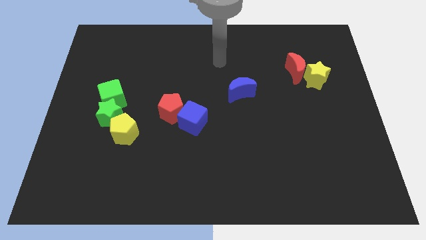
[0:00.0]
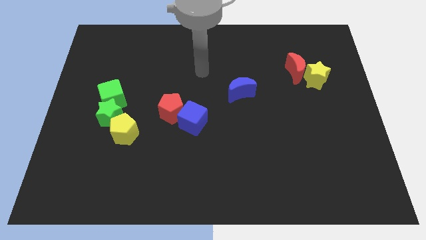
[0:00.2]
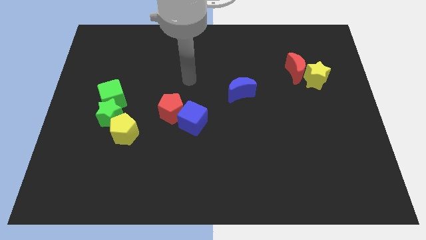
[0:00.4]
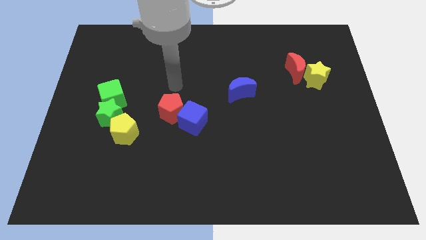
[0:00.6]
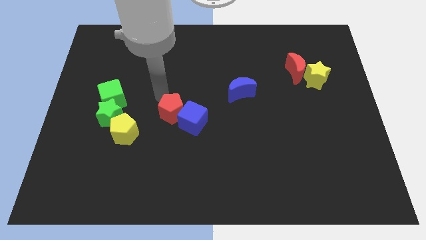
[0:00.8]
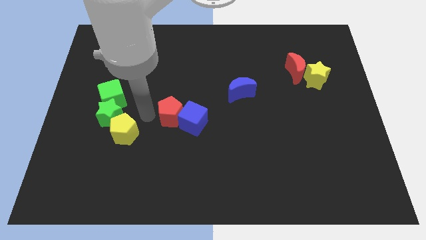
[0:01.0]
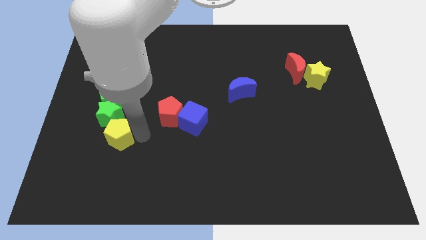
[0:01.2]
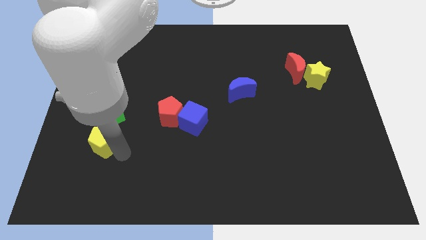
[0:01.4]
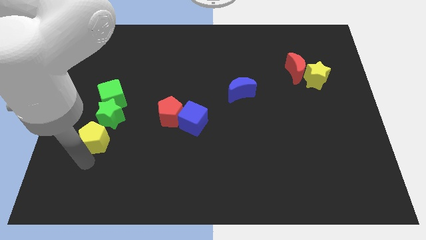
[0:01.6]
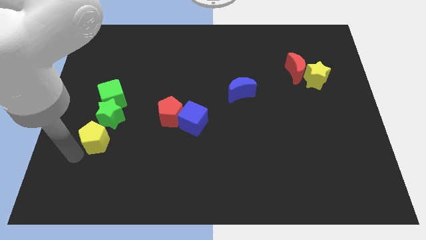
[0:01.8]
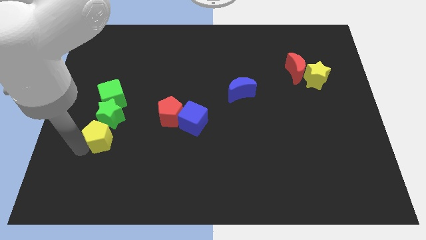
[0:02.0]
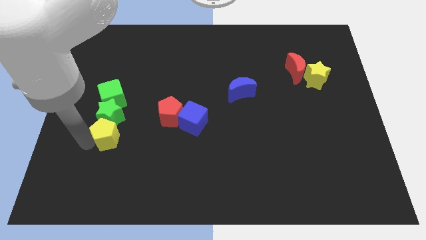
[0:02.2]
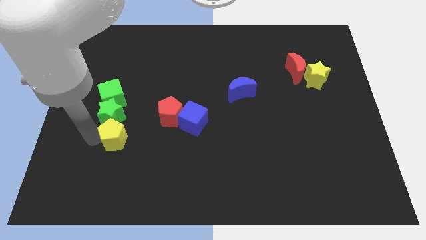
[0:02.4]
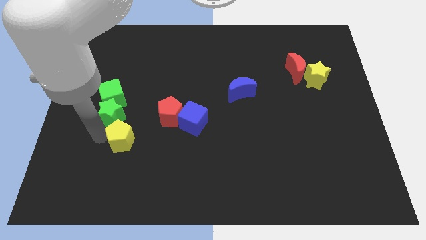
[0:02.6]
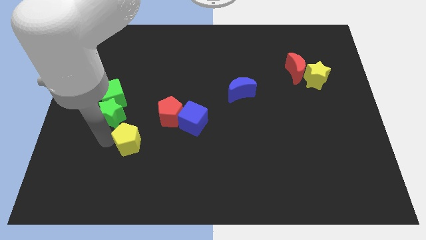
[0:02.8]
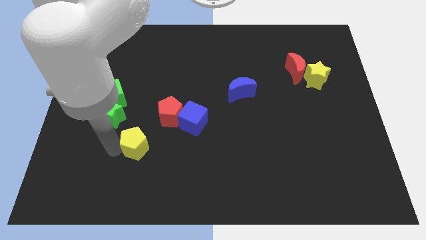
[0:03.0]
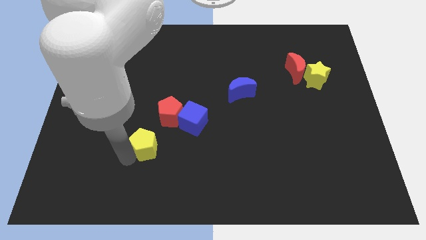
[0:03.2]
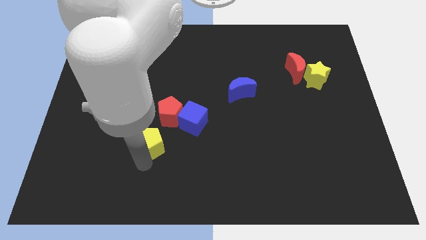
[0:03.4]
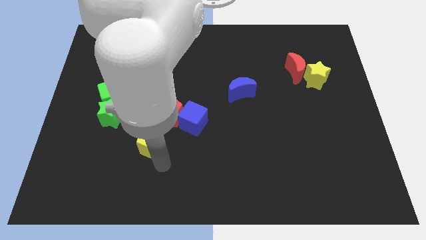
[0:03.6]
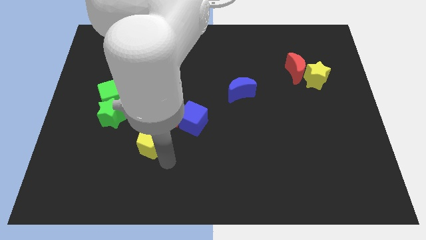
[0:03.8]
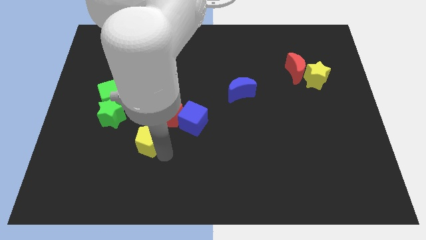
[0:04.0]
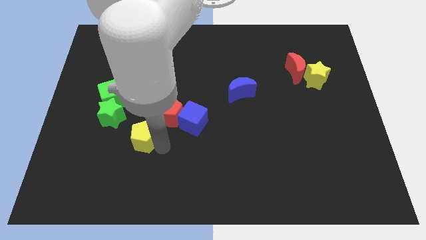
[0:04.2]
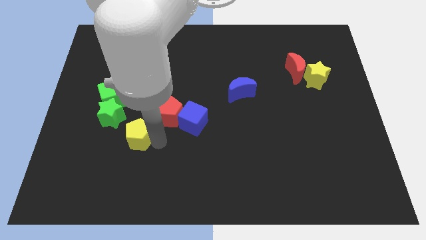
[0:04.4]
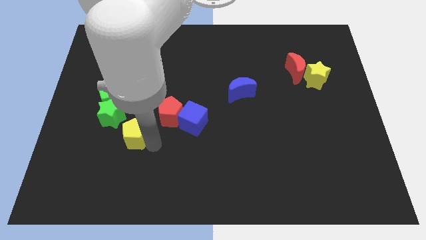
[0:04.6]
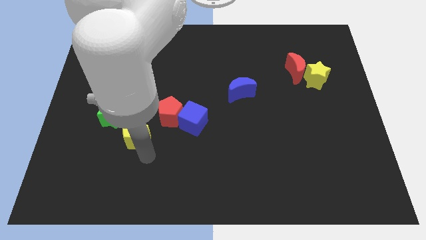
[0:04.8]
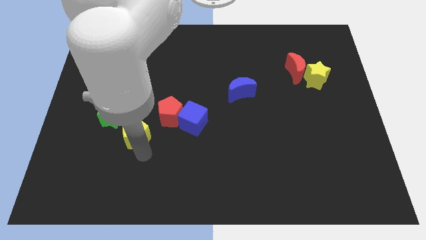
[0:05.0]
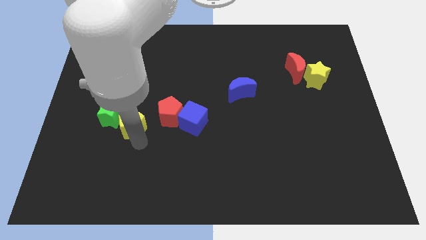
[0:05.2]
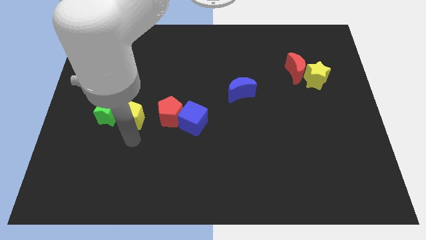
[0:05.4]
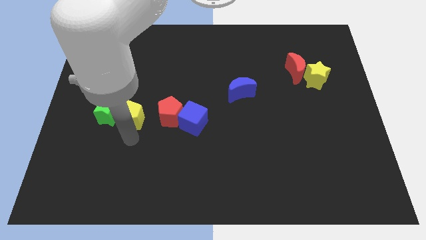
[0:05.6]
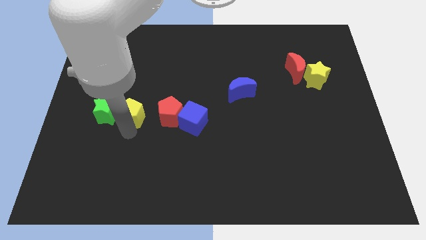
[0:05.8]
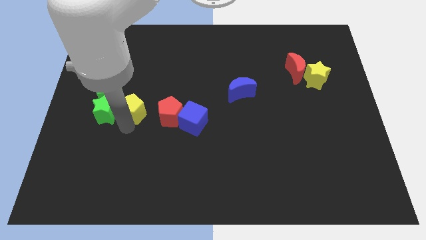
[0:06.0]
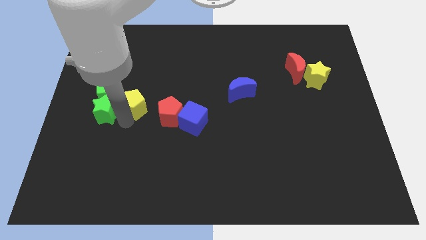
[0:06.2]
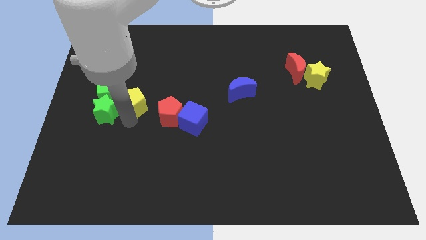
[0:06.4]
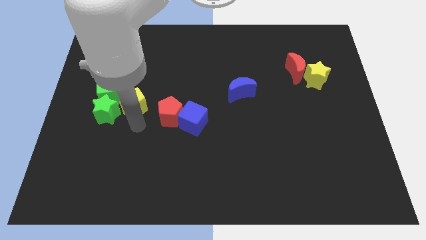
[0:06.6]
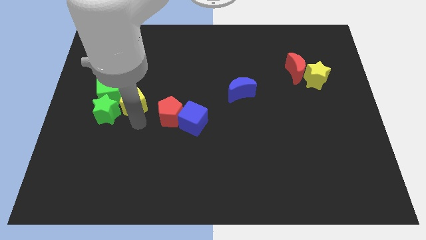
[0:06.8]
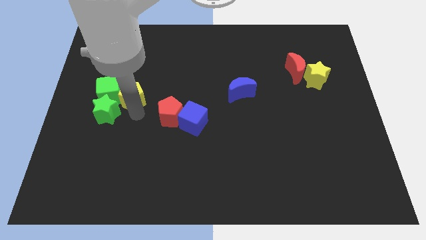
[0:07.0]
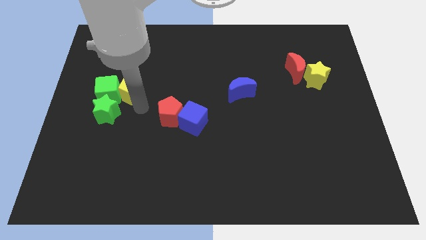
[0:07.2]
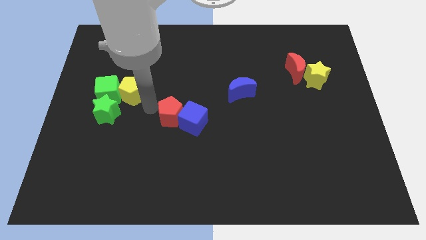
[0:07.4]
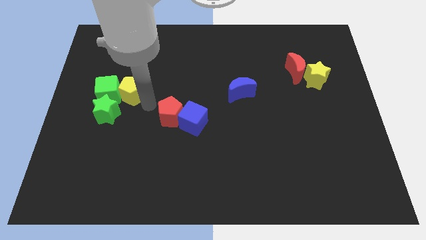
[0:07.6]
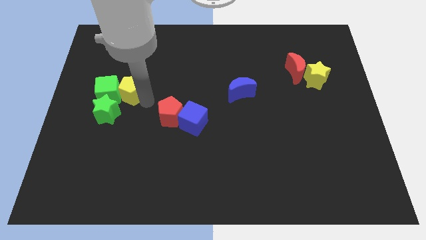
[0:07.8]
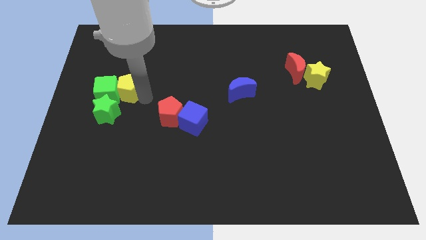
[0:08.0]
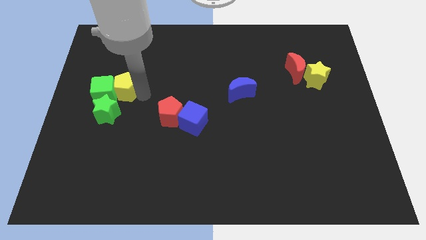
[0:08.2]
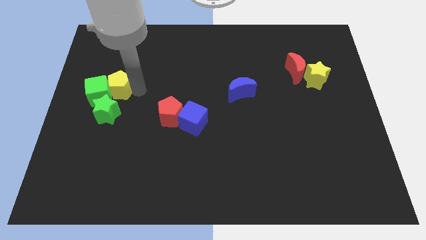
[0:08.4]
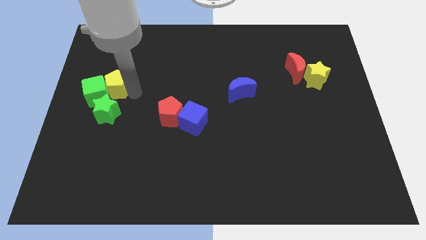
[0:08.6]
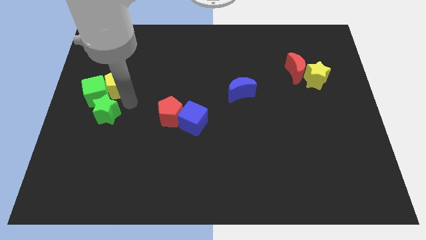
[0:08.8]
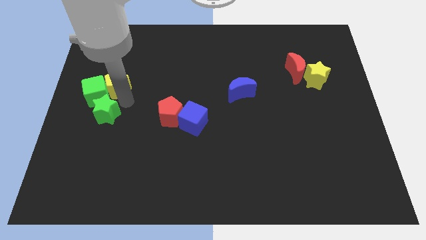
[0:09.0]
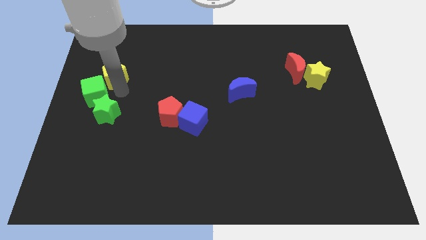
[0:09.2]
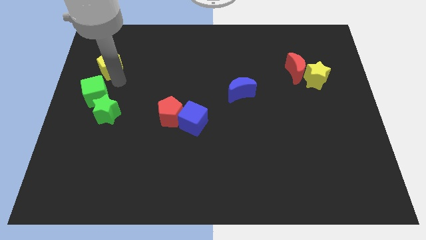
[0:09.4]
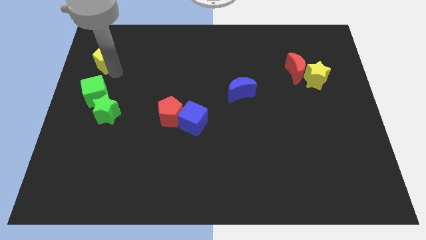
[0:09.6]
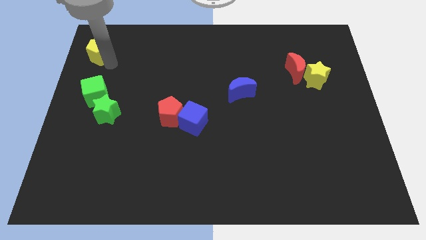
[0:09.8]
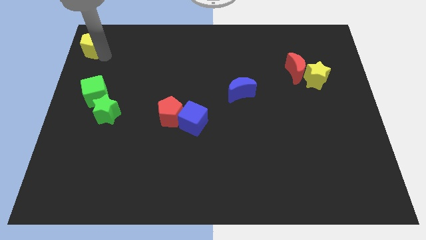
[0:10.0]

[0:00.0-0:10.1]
put the yellow pentagon to the top left corner

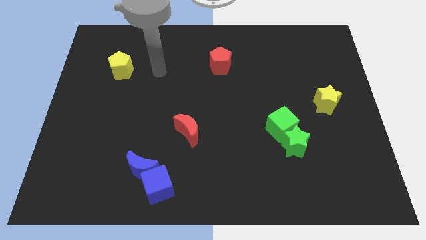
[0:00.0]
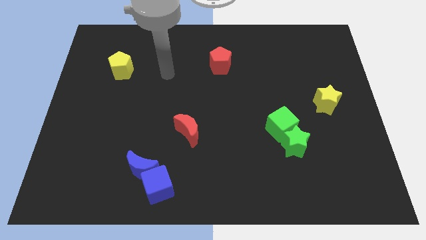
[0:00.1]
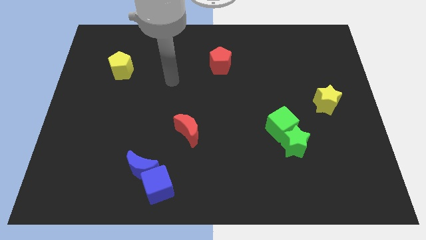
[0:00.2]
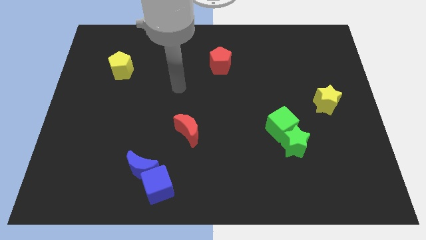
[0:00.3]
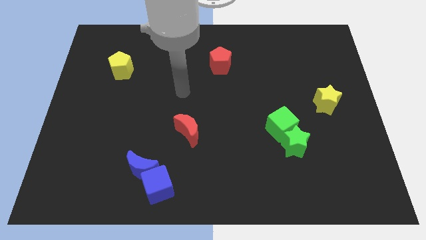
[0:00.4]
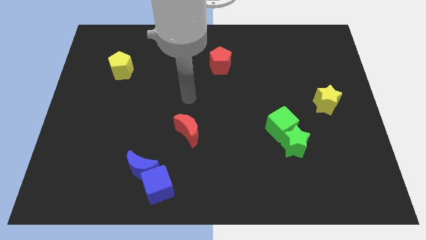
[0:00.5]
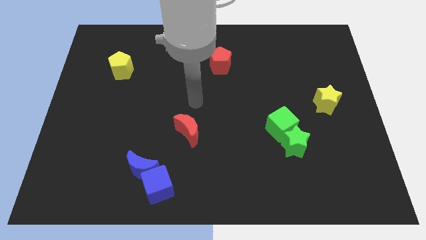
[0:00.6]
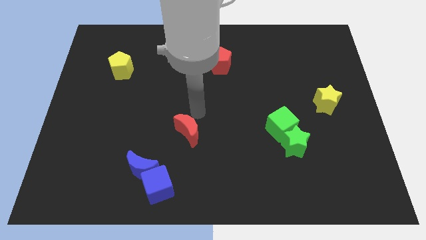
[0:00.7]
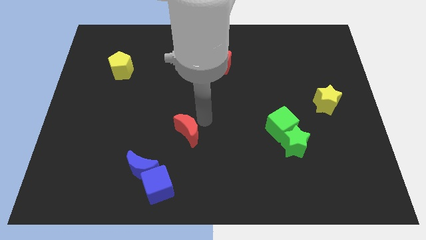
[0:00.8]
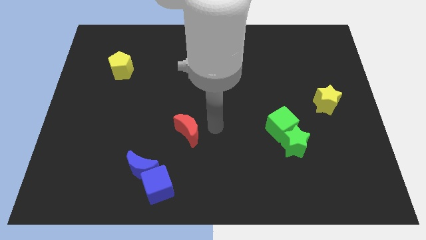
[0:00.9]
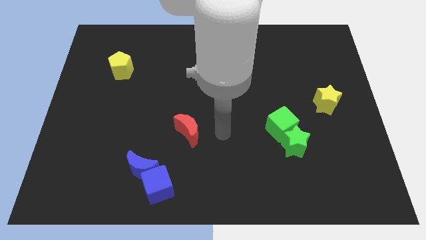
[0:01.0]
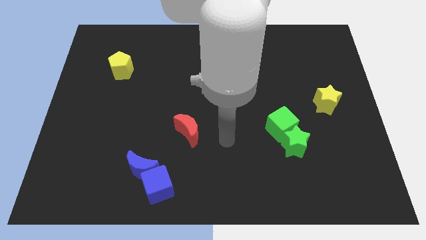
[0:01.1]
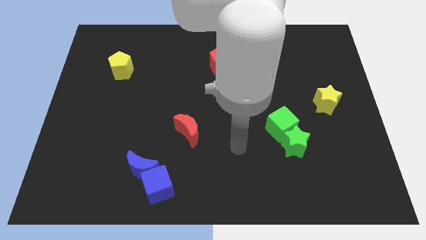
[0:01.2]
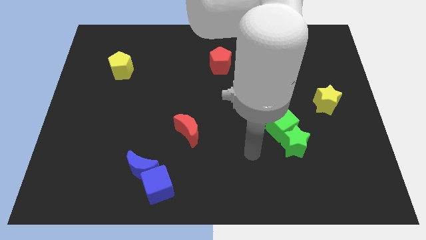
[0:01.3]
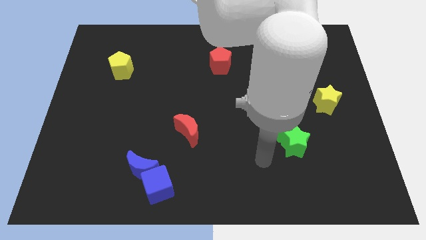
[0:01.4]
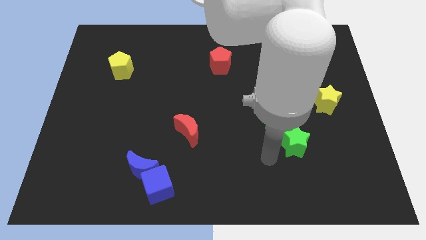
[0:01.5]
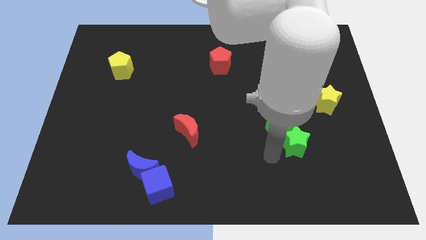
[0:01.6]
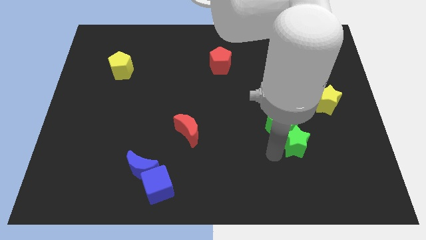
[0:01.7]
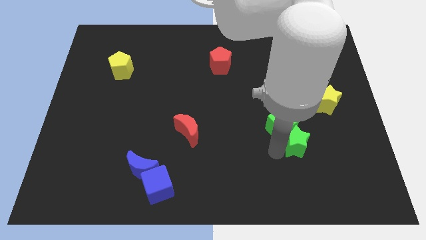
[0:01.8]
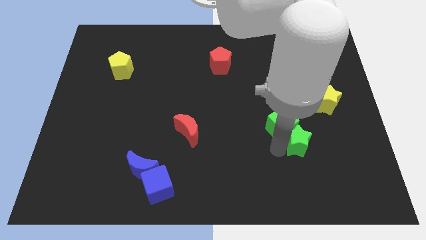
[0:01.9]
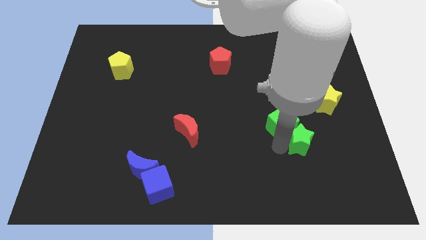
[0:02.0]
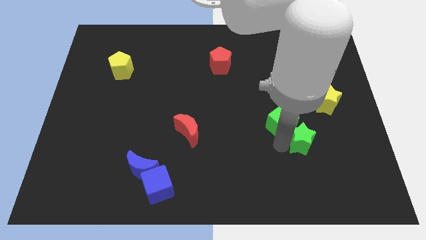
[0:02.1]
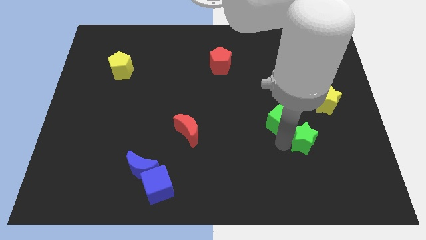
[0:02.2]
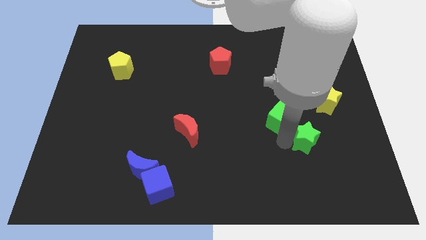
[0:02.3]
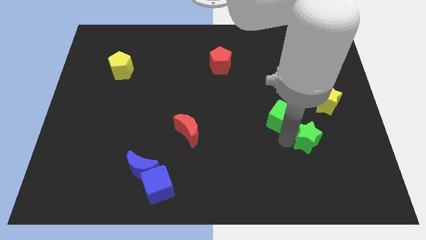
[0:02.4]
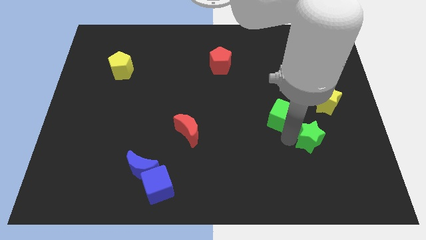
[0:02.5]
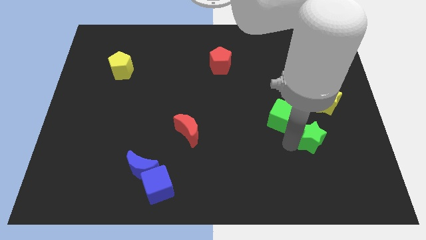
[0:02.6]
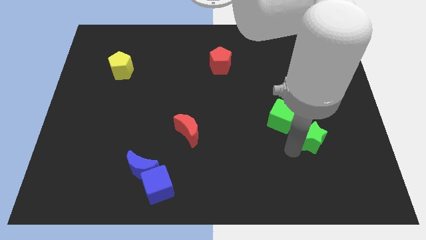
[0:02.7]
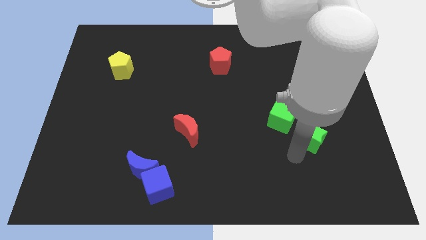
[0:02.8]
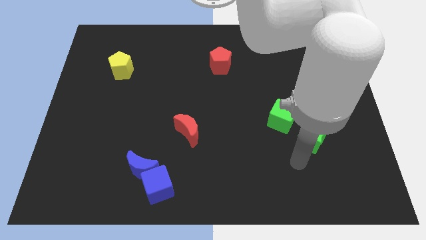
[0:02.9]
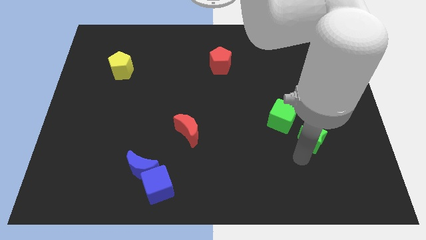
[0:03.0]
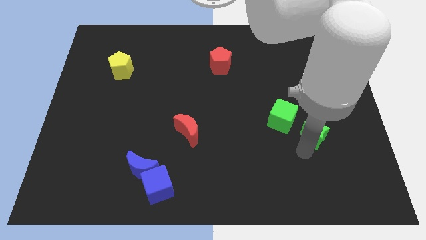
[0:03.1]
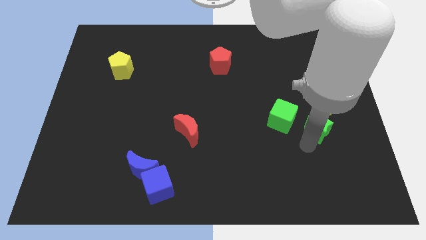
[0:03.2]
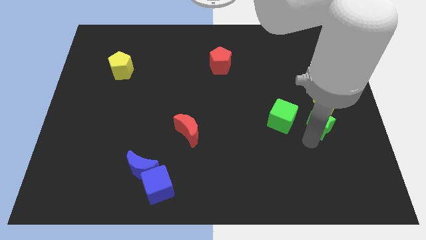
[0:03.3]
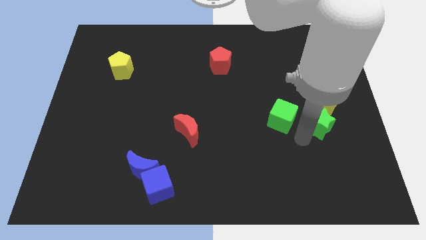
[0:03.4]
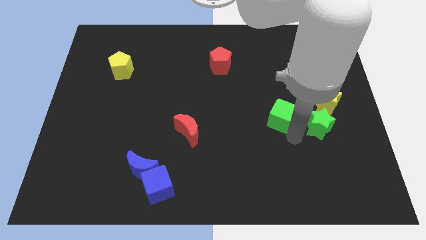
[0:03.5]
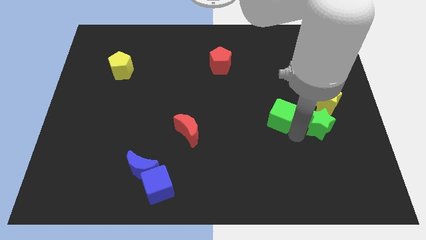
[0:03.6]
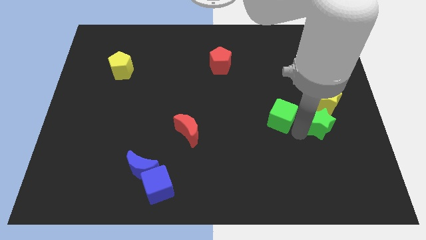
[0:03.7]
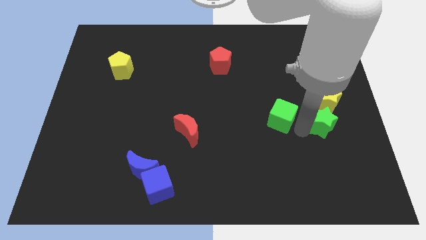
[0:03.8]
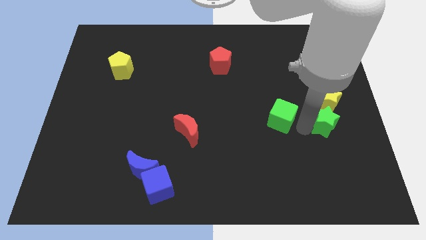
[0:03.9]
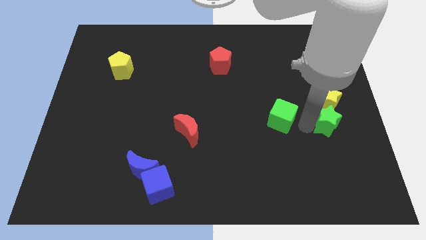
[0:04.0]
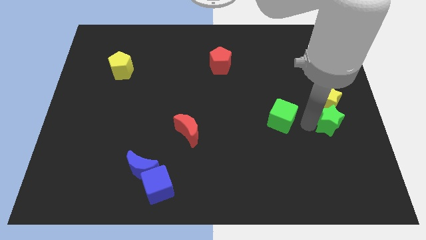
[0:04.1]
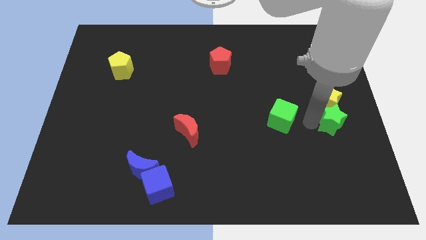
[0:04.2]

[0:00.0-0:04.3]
move the green star to the right side
